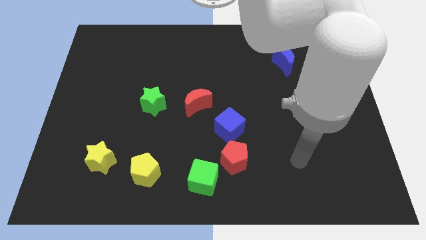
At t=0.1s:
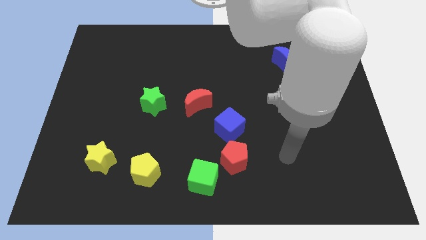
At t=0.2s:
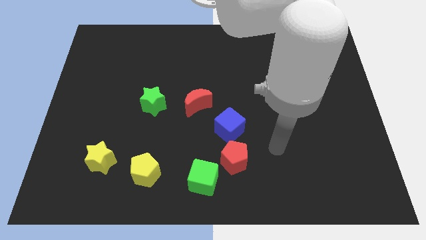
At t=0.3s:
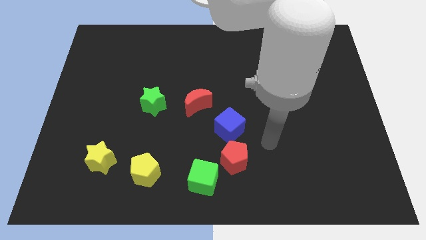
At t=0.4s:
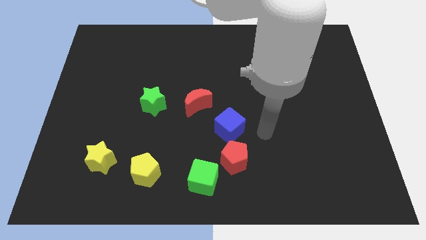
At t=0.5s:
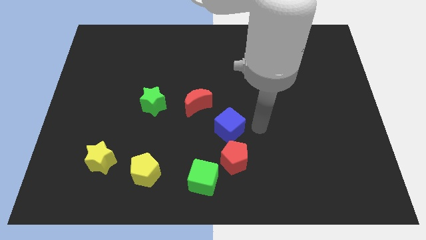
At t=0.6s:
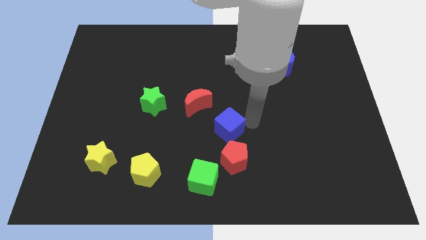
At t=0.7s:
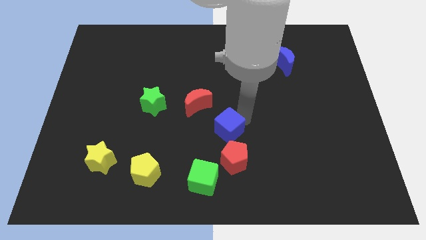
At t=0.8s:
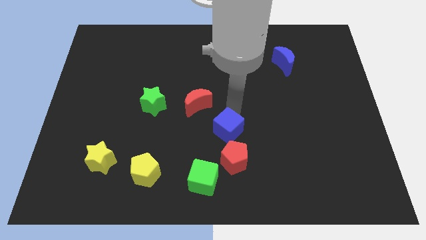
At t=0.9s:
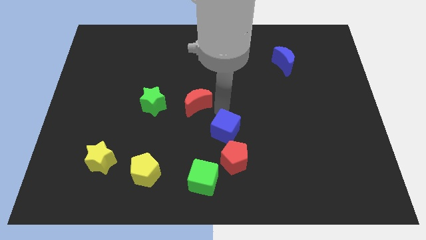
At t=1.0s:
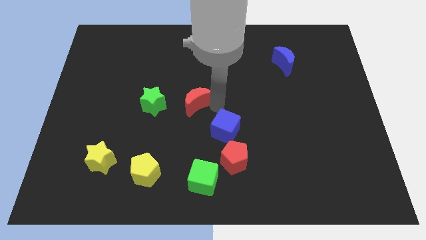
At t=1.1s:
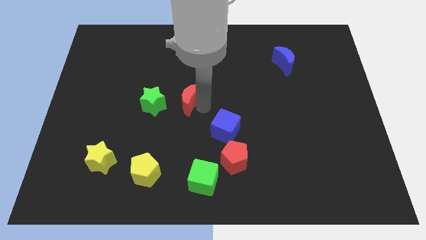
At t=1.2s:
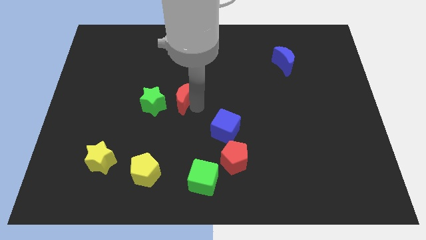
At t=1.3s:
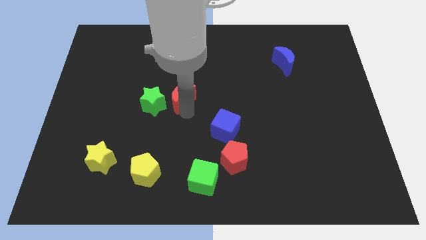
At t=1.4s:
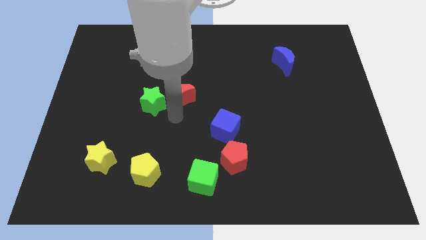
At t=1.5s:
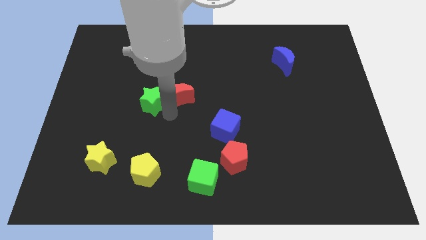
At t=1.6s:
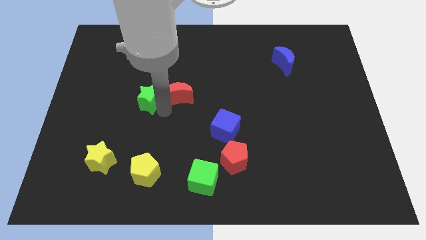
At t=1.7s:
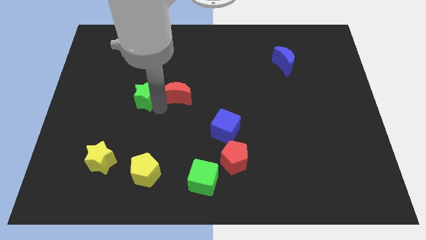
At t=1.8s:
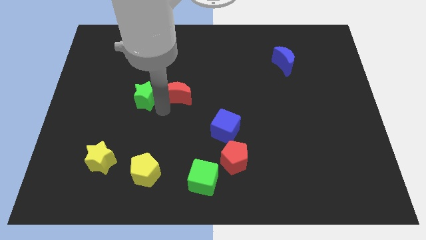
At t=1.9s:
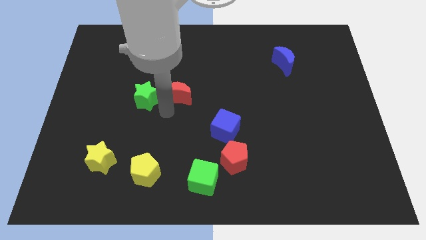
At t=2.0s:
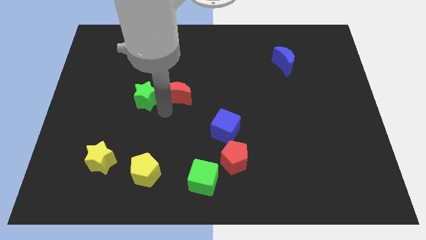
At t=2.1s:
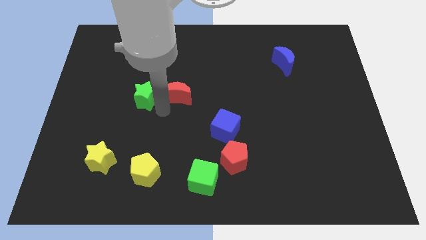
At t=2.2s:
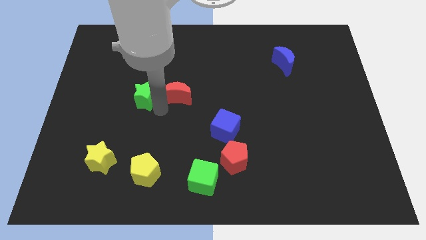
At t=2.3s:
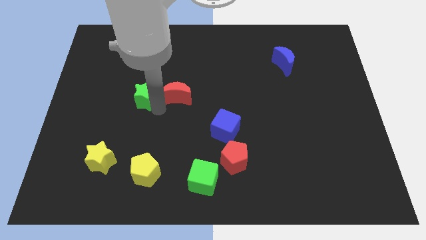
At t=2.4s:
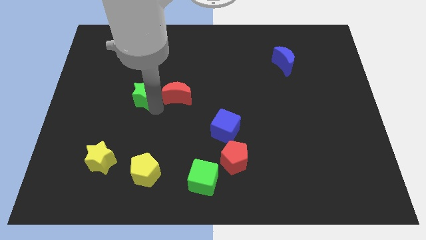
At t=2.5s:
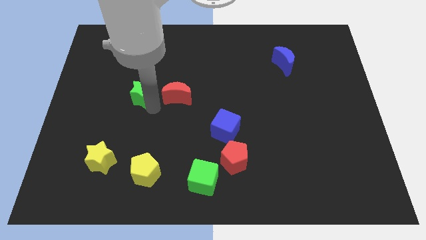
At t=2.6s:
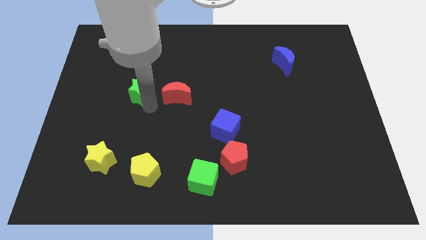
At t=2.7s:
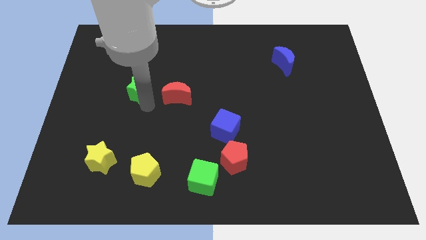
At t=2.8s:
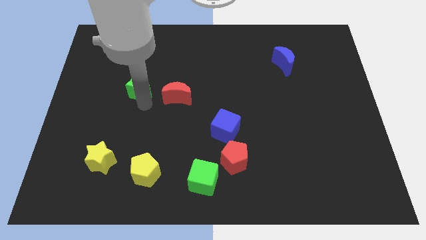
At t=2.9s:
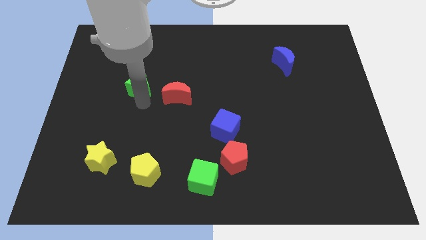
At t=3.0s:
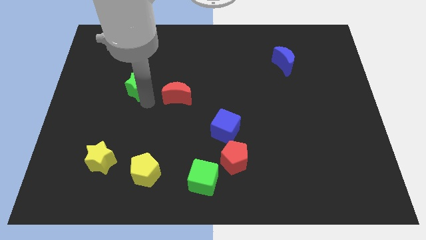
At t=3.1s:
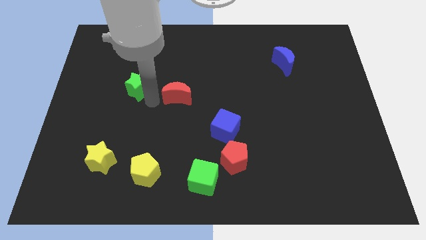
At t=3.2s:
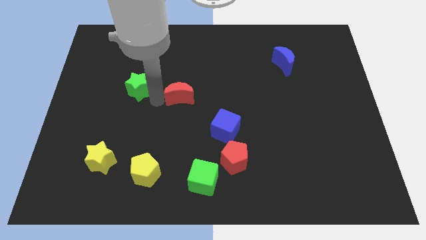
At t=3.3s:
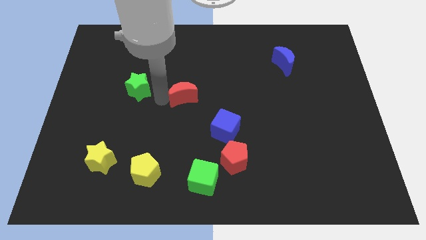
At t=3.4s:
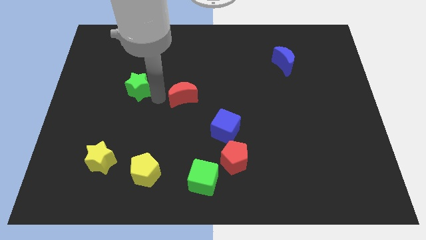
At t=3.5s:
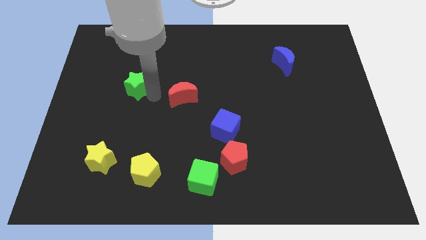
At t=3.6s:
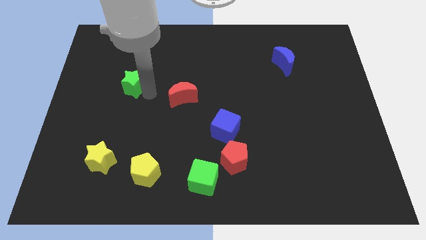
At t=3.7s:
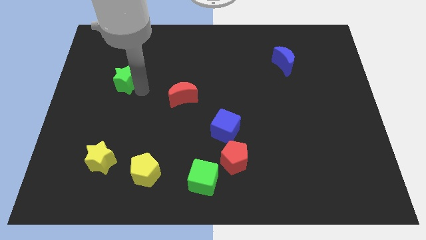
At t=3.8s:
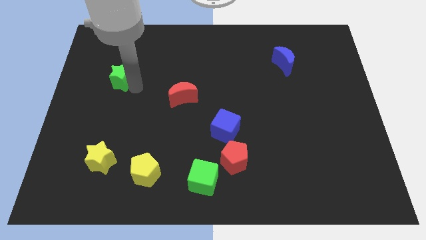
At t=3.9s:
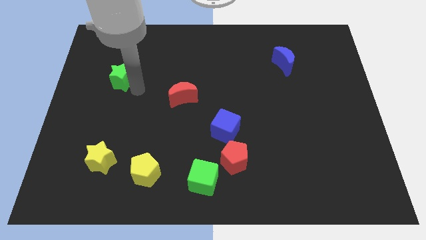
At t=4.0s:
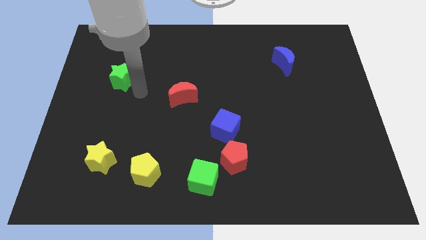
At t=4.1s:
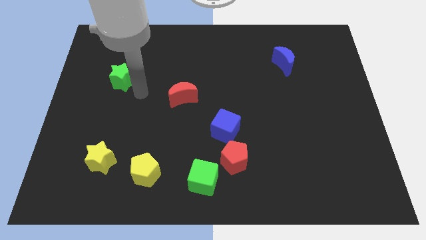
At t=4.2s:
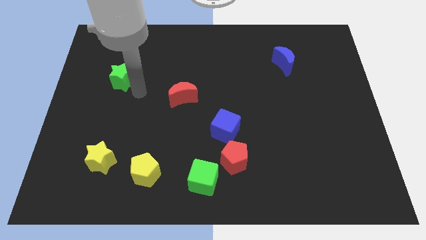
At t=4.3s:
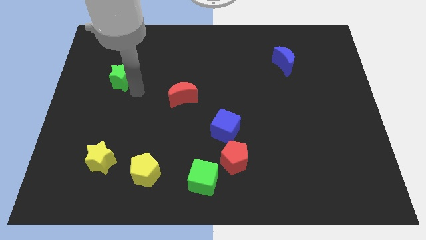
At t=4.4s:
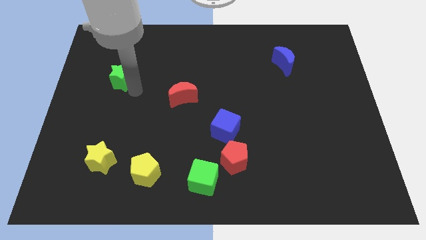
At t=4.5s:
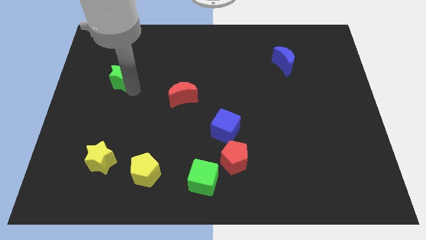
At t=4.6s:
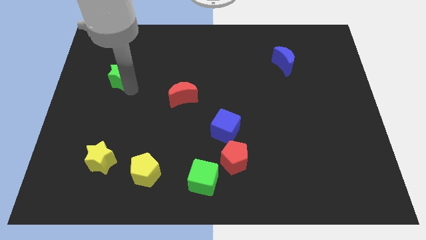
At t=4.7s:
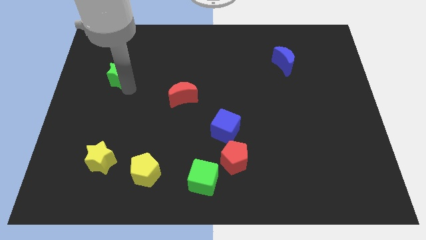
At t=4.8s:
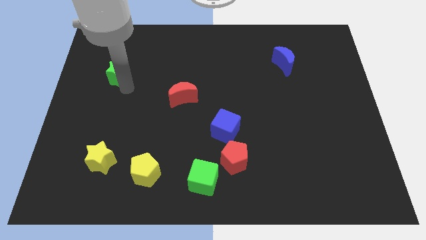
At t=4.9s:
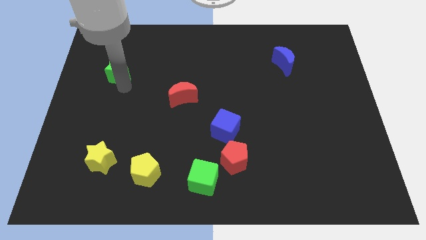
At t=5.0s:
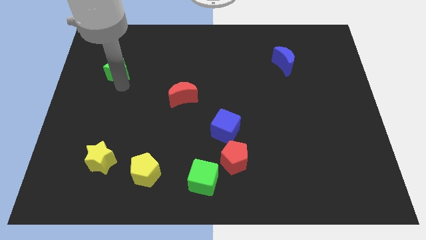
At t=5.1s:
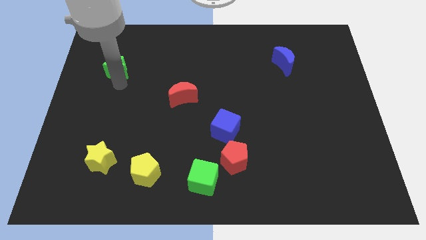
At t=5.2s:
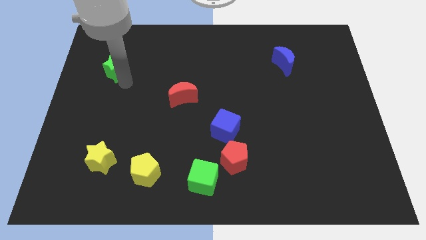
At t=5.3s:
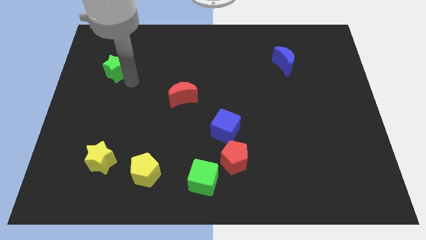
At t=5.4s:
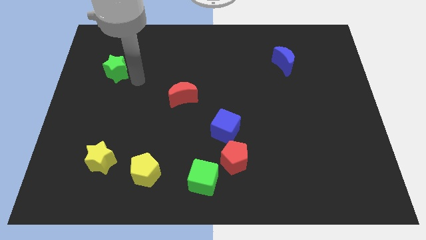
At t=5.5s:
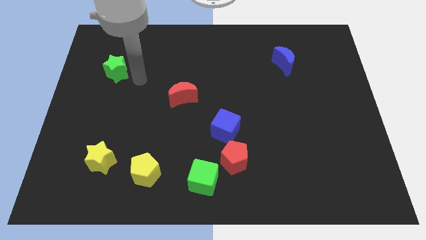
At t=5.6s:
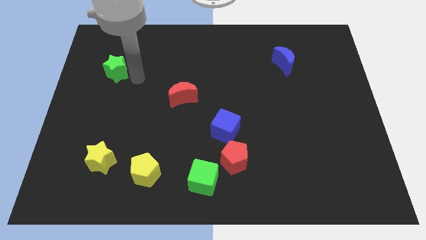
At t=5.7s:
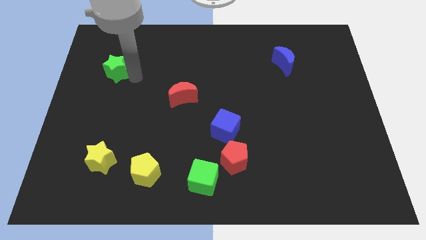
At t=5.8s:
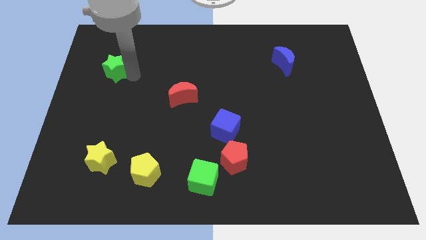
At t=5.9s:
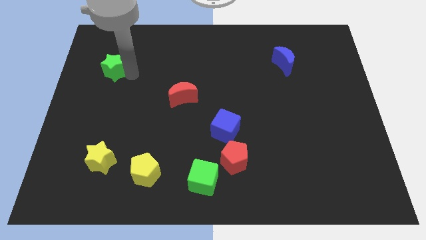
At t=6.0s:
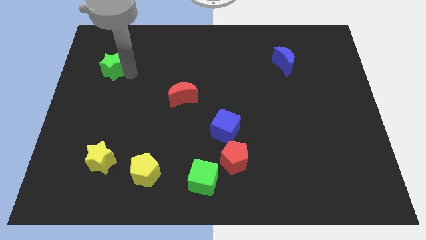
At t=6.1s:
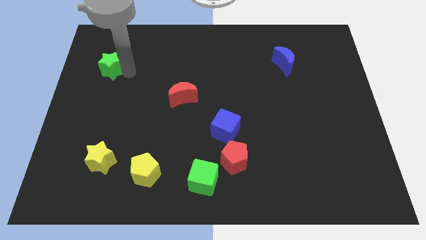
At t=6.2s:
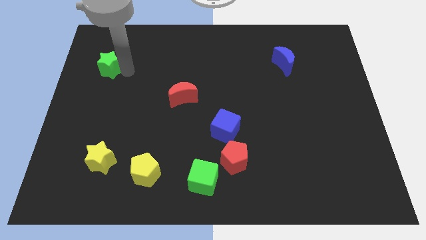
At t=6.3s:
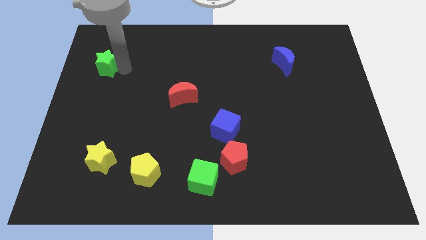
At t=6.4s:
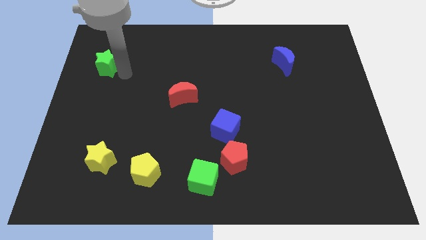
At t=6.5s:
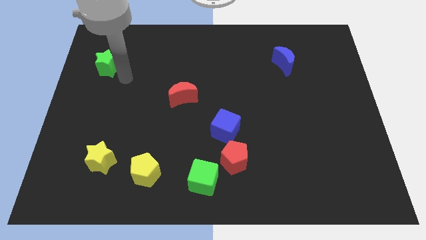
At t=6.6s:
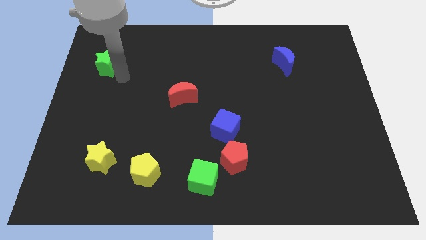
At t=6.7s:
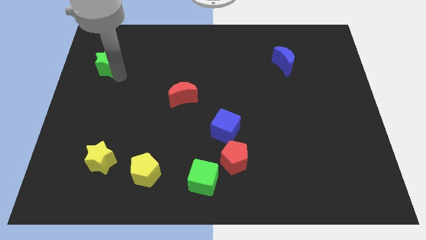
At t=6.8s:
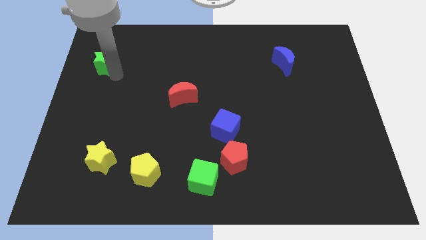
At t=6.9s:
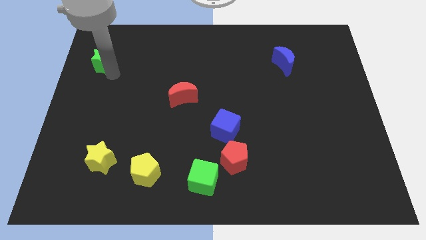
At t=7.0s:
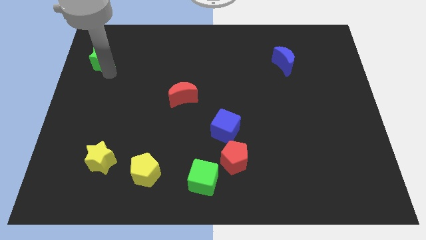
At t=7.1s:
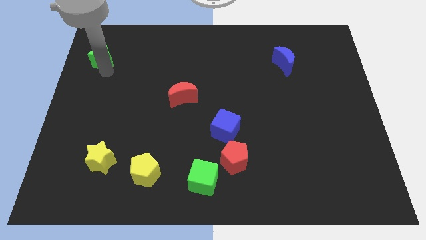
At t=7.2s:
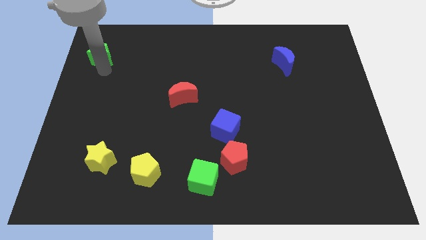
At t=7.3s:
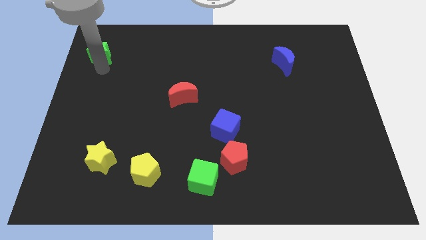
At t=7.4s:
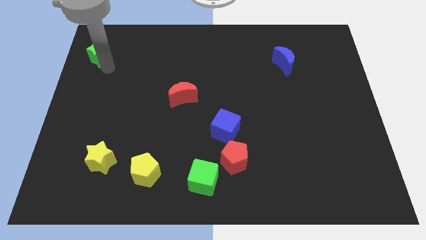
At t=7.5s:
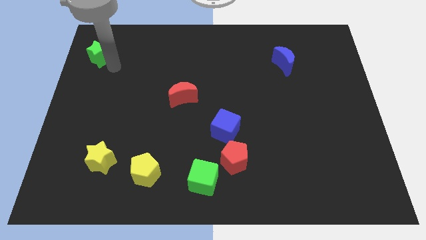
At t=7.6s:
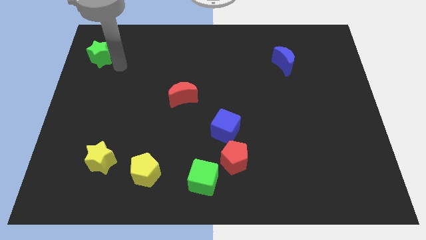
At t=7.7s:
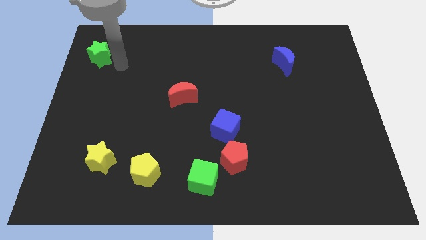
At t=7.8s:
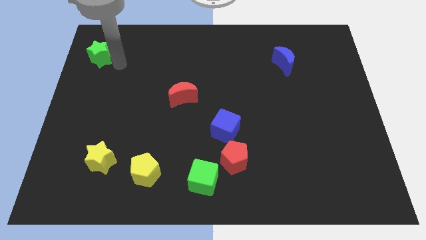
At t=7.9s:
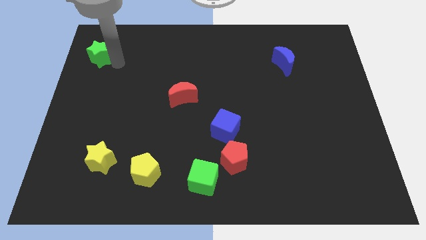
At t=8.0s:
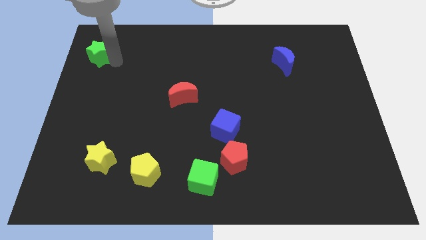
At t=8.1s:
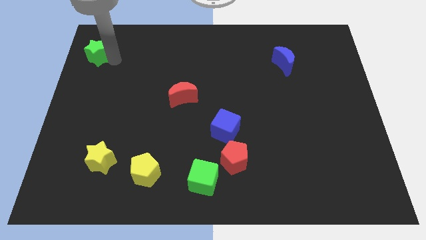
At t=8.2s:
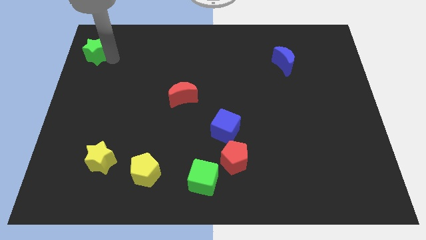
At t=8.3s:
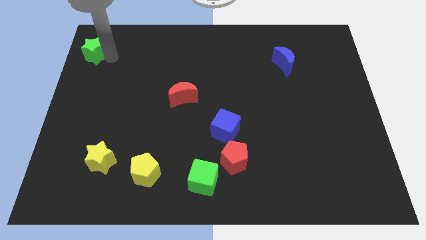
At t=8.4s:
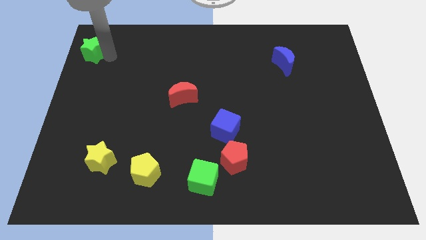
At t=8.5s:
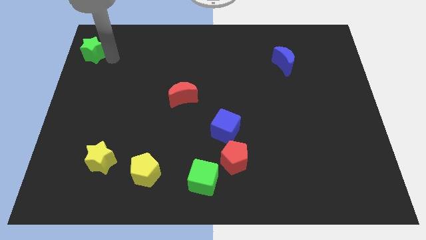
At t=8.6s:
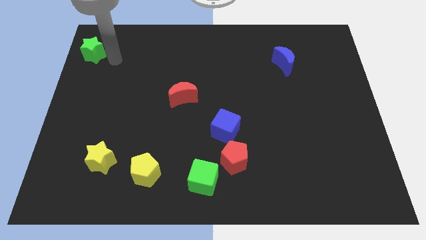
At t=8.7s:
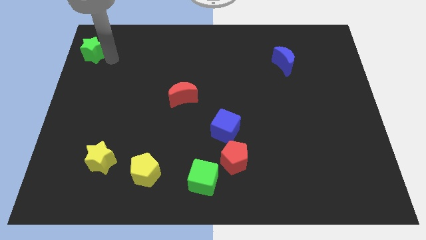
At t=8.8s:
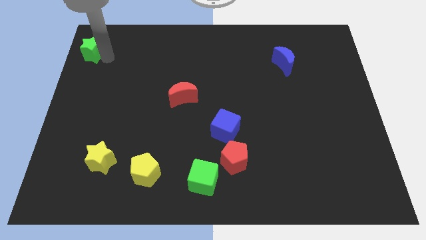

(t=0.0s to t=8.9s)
push the green star to the top left
